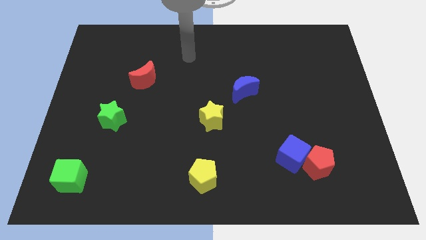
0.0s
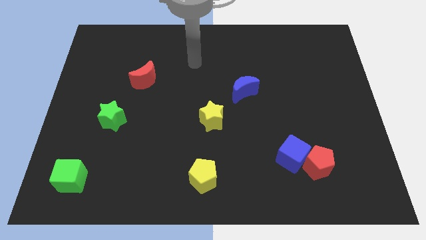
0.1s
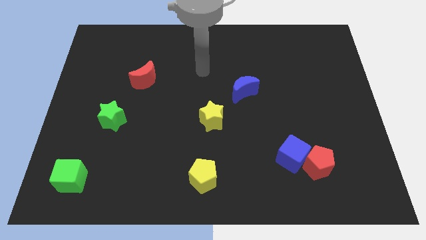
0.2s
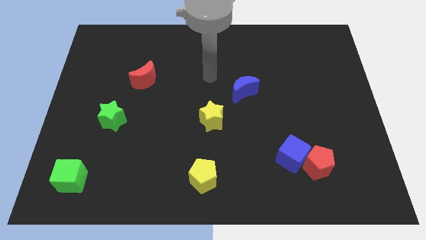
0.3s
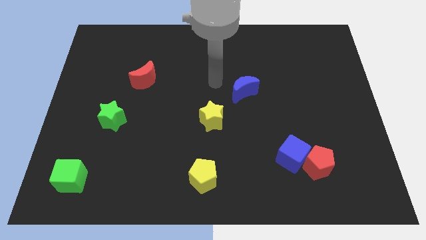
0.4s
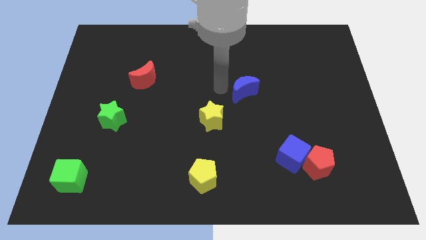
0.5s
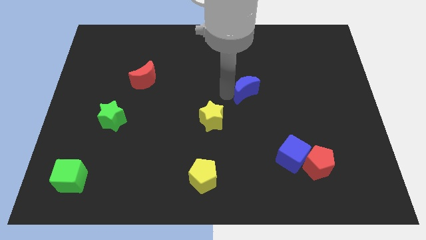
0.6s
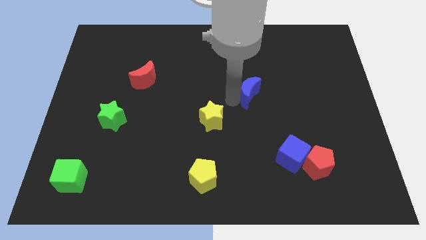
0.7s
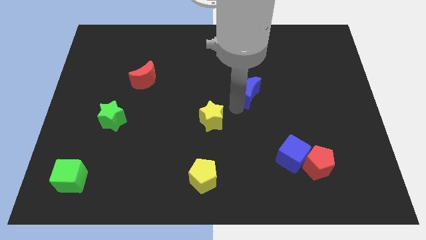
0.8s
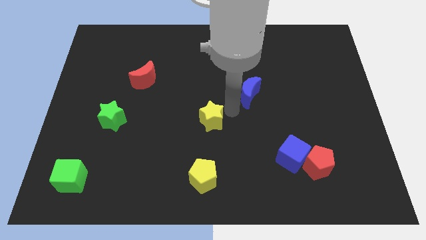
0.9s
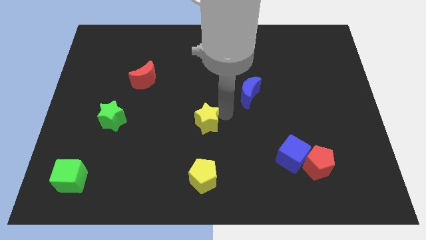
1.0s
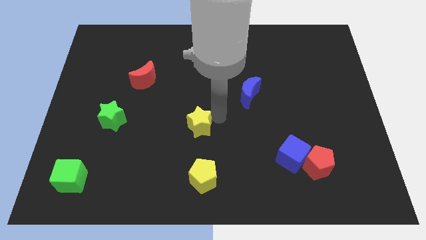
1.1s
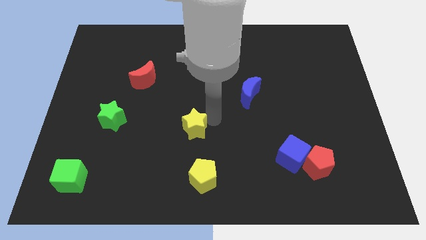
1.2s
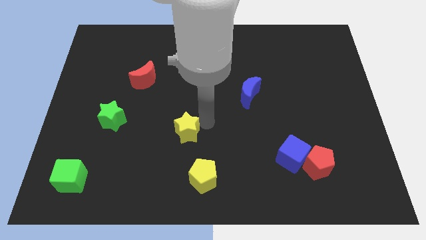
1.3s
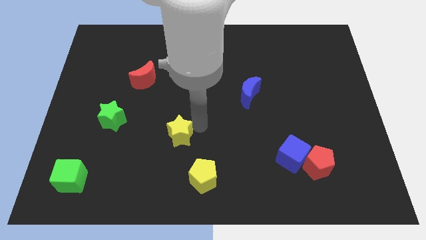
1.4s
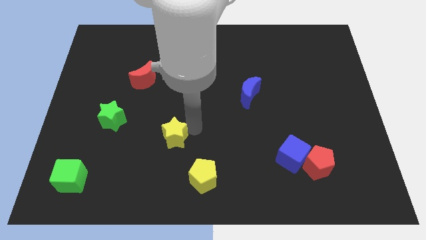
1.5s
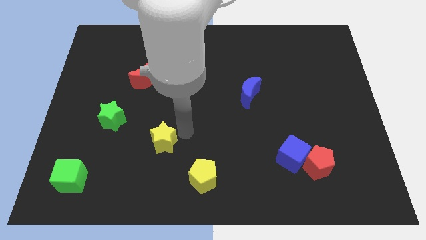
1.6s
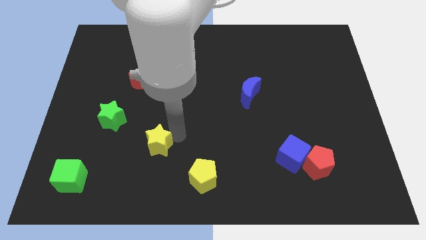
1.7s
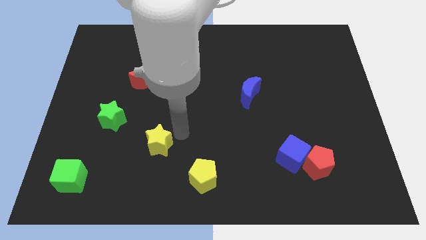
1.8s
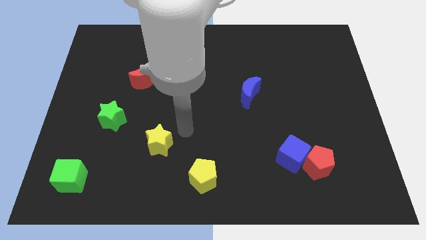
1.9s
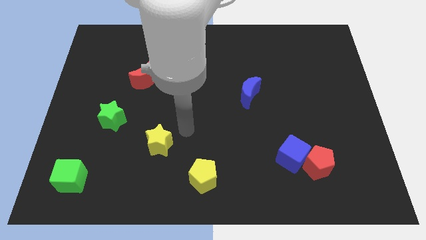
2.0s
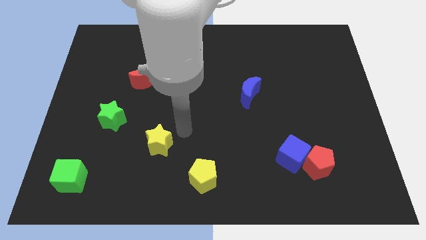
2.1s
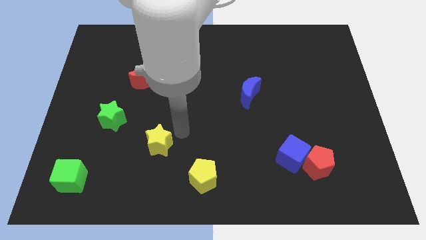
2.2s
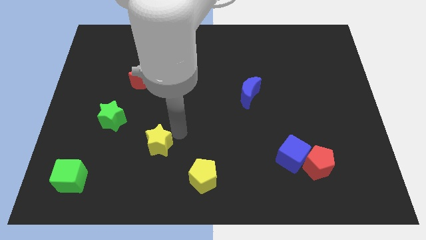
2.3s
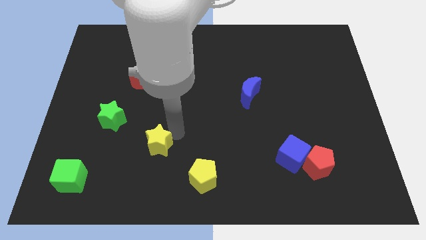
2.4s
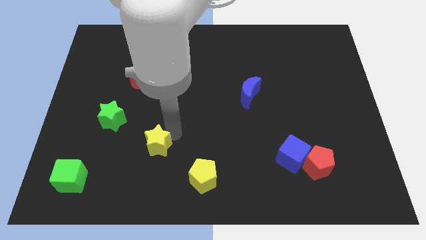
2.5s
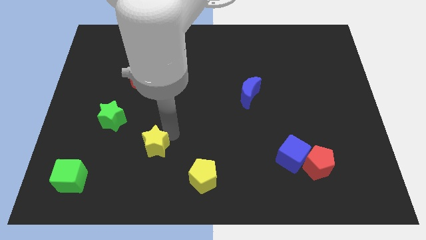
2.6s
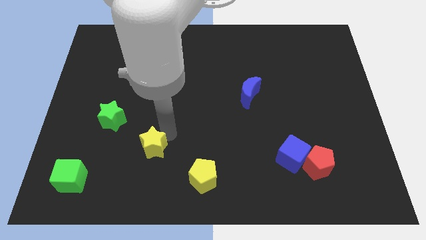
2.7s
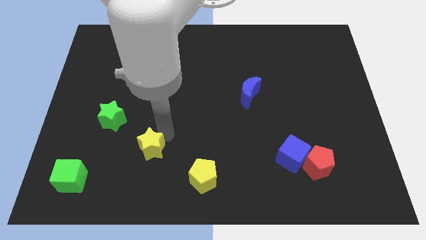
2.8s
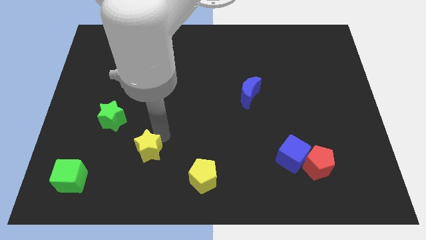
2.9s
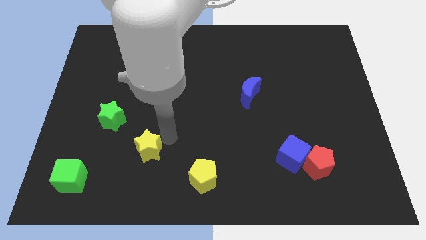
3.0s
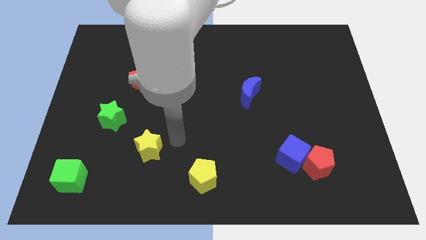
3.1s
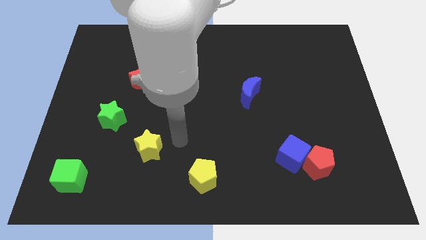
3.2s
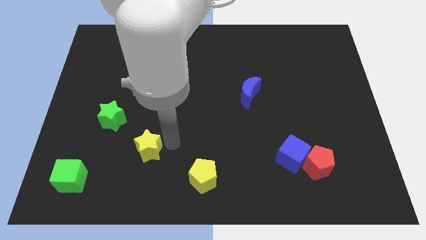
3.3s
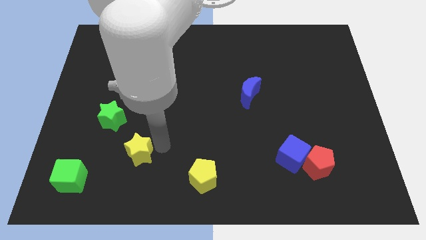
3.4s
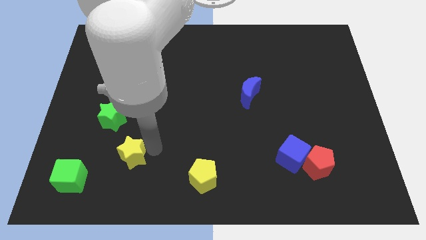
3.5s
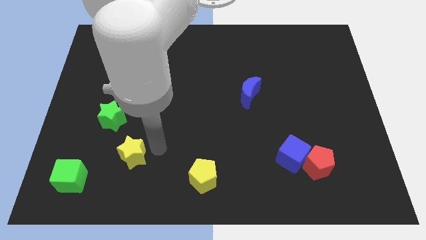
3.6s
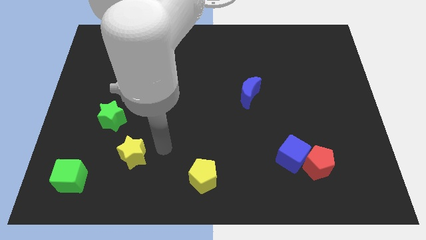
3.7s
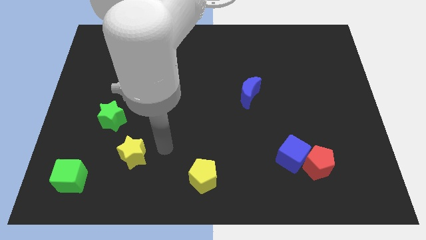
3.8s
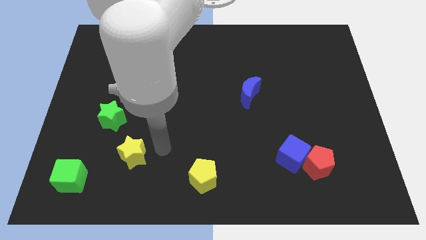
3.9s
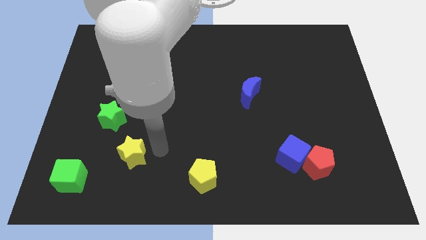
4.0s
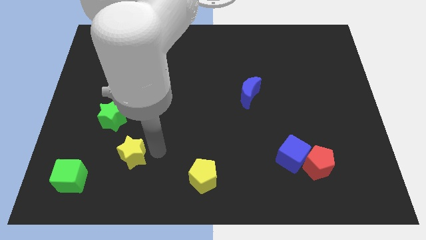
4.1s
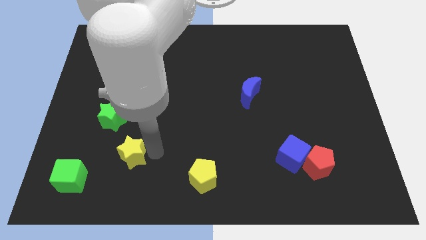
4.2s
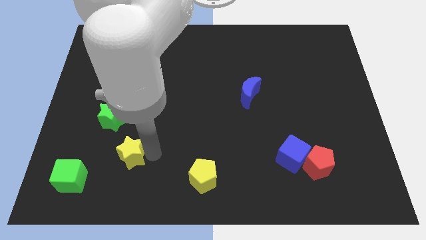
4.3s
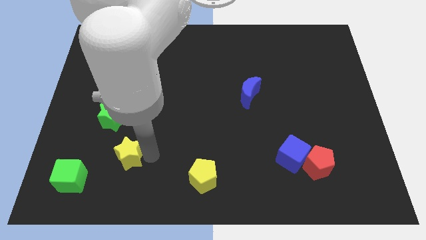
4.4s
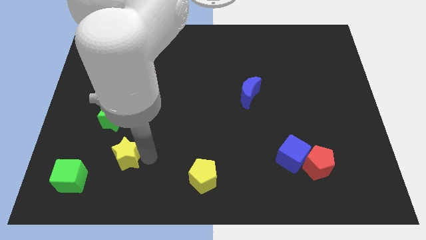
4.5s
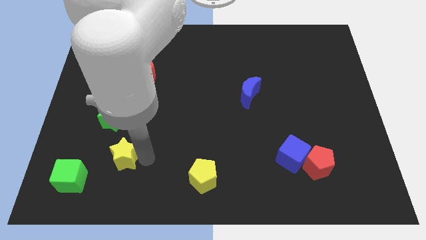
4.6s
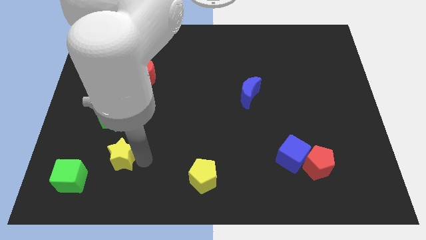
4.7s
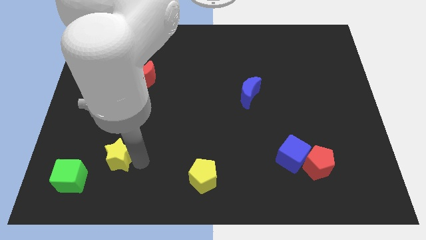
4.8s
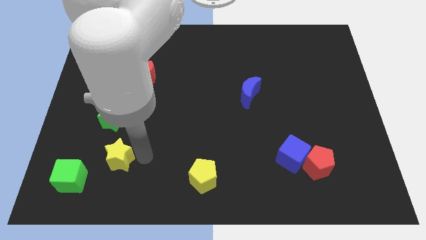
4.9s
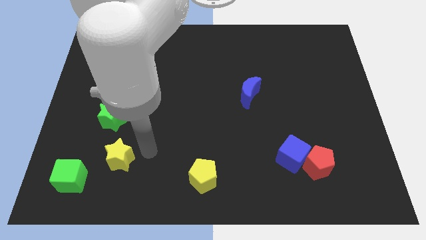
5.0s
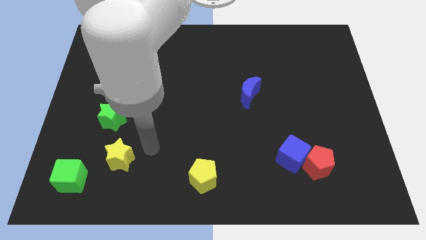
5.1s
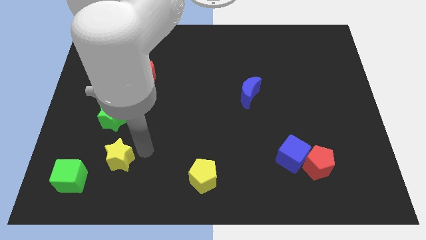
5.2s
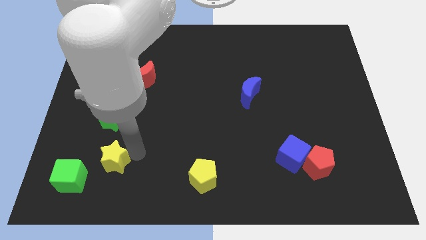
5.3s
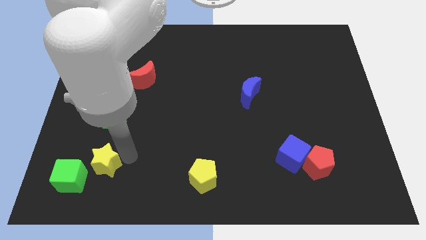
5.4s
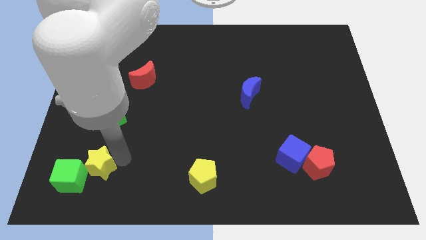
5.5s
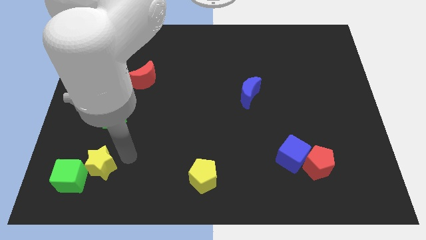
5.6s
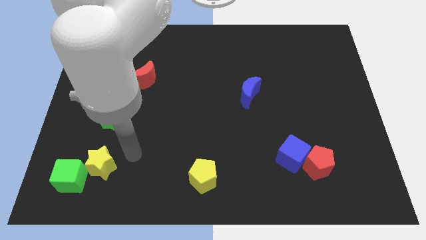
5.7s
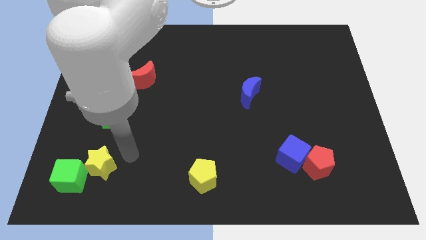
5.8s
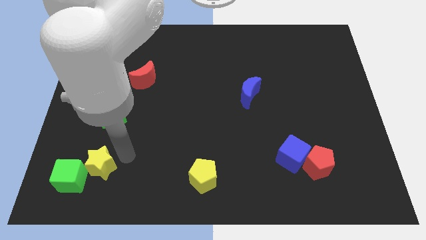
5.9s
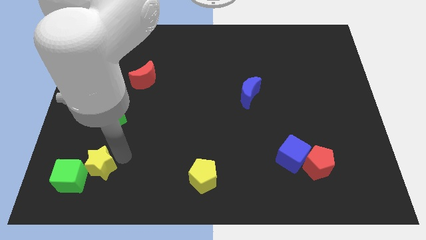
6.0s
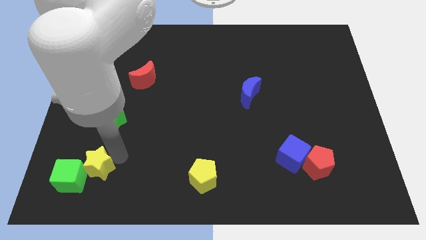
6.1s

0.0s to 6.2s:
slide the yellow star towards the green cube

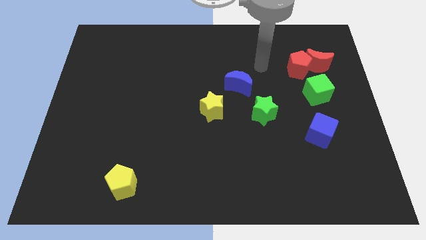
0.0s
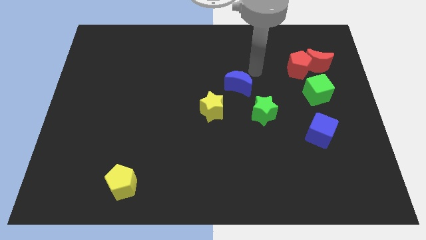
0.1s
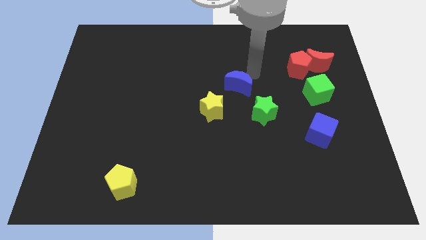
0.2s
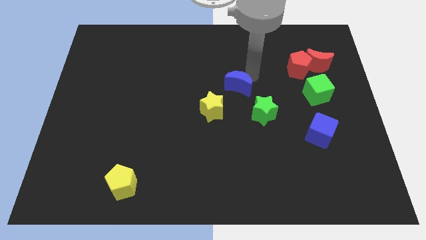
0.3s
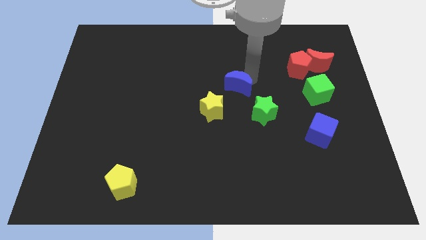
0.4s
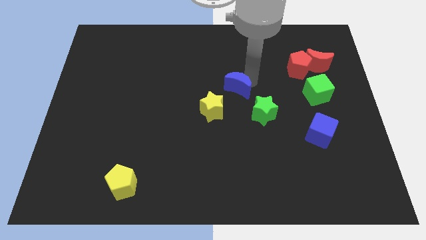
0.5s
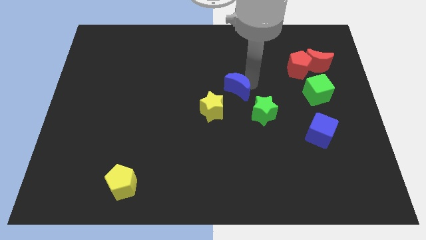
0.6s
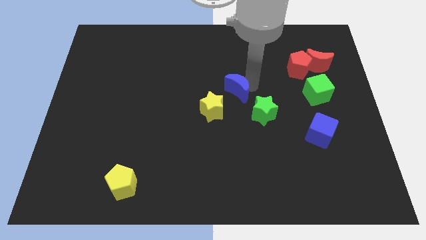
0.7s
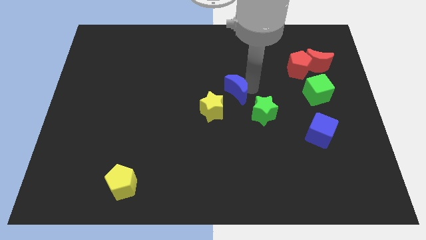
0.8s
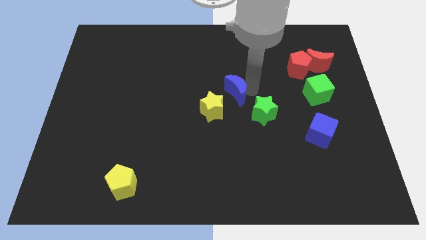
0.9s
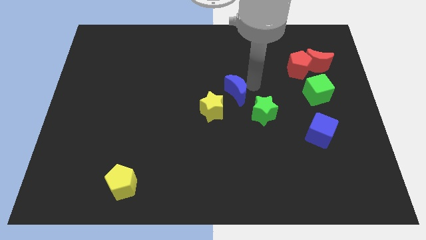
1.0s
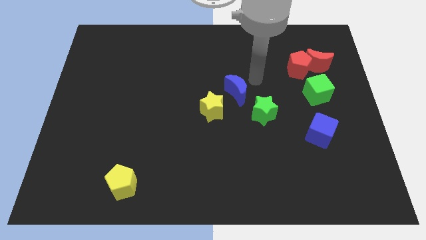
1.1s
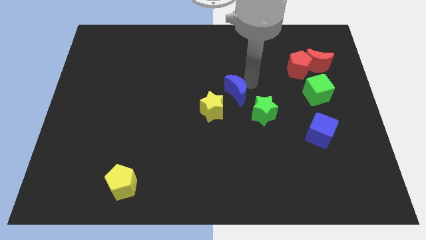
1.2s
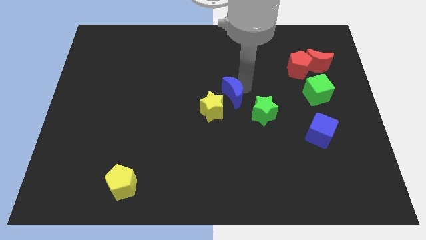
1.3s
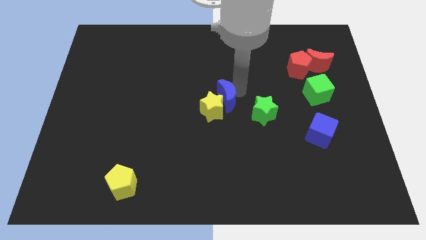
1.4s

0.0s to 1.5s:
push the blue moon to the yellow star
